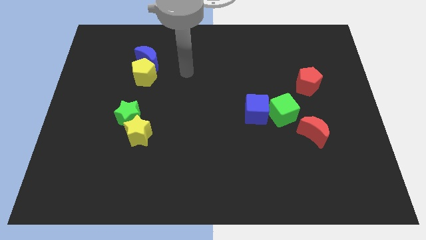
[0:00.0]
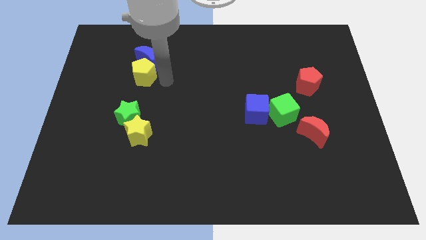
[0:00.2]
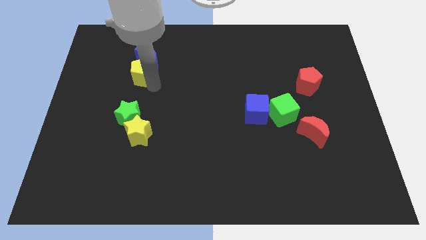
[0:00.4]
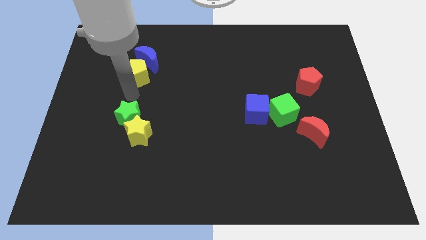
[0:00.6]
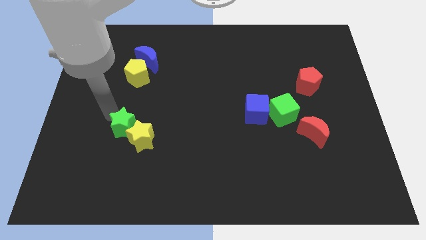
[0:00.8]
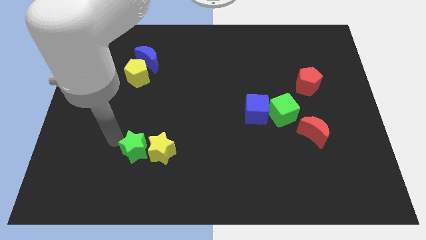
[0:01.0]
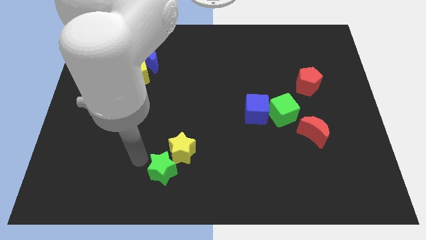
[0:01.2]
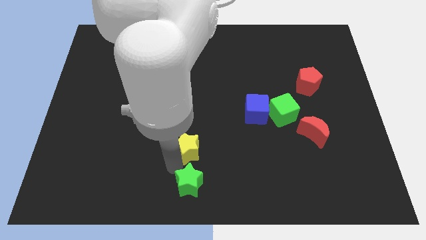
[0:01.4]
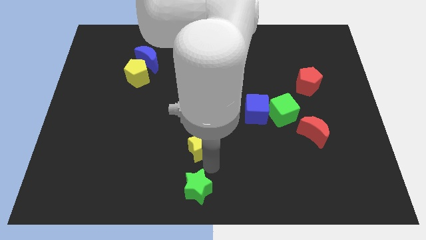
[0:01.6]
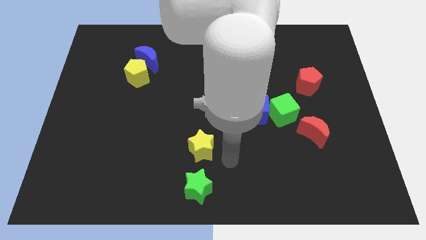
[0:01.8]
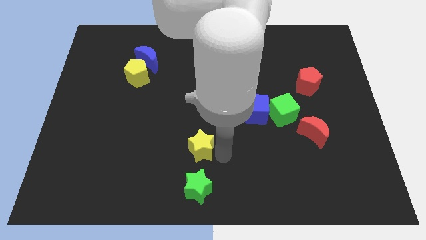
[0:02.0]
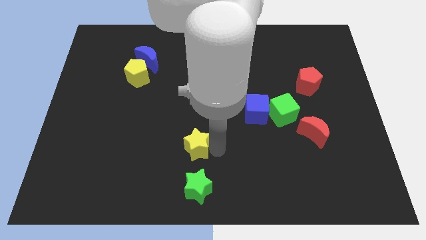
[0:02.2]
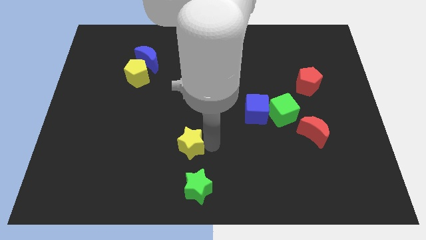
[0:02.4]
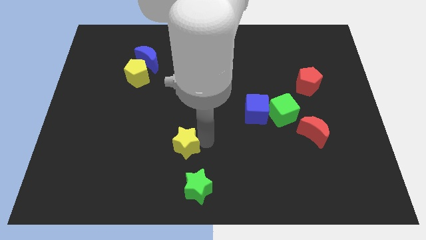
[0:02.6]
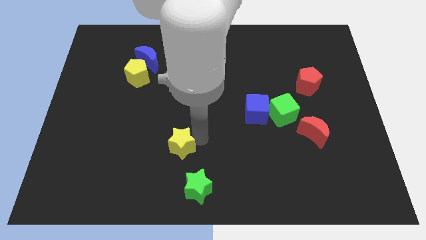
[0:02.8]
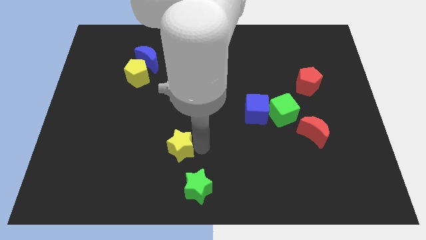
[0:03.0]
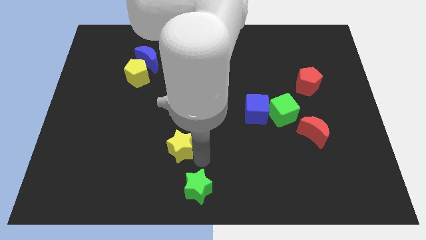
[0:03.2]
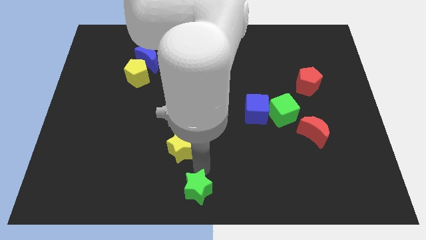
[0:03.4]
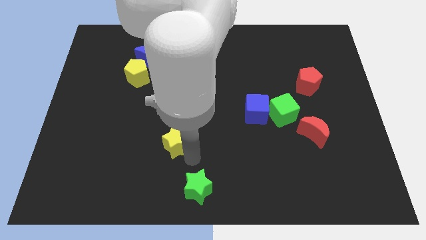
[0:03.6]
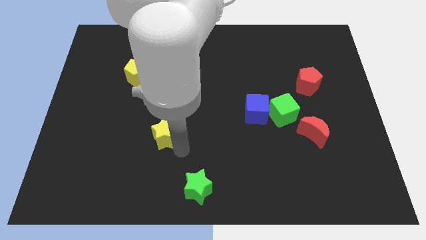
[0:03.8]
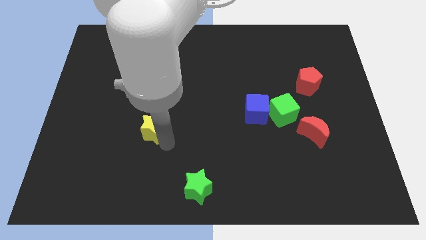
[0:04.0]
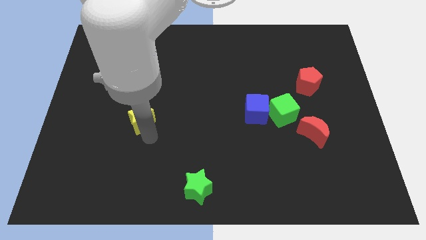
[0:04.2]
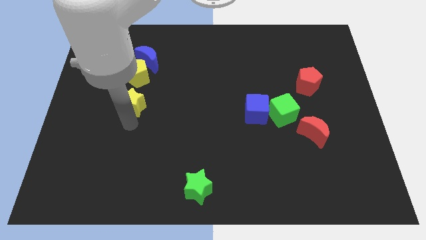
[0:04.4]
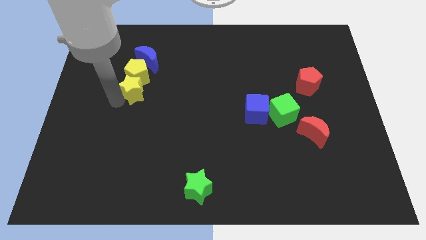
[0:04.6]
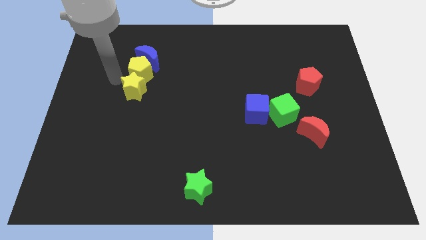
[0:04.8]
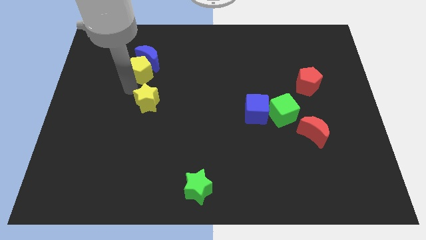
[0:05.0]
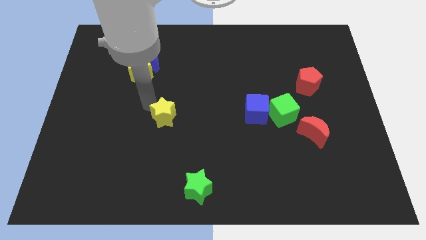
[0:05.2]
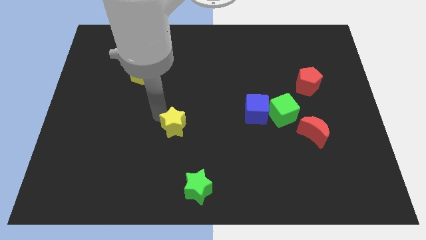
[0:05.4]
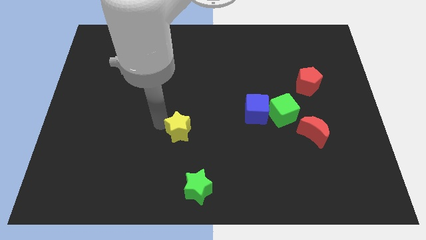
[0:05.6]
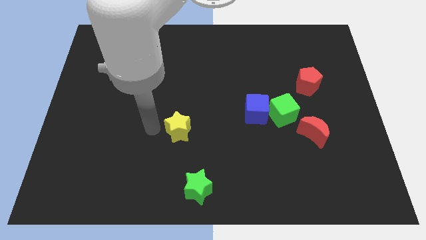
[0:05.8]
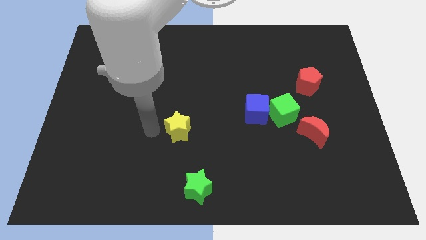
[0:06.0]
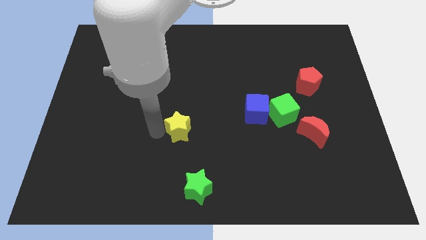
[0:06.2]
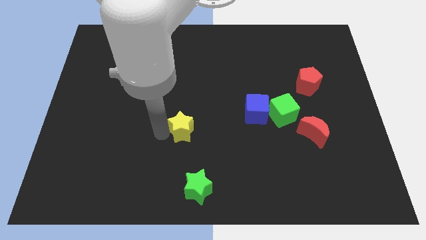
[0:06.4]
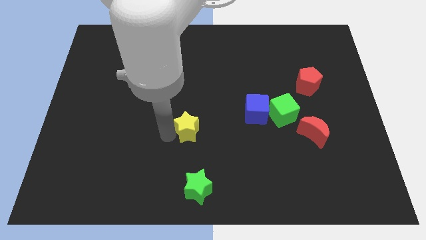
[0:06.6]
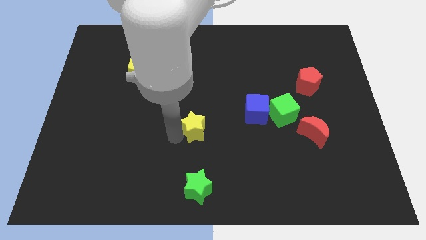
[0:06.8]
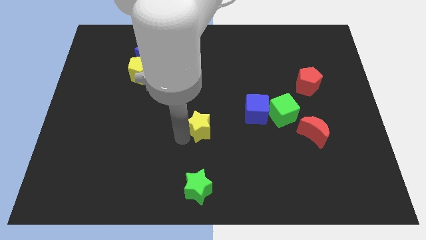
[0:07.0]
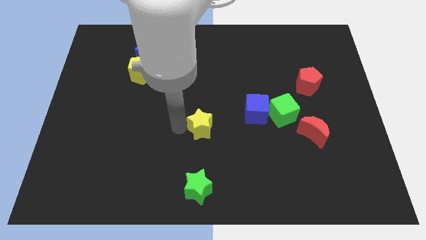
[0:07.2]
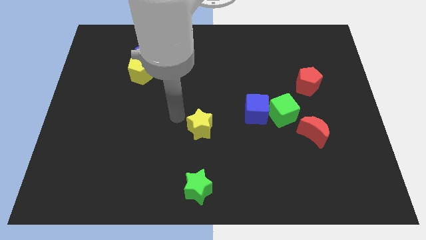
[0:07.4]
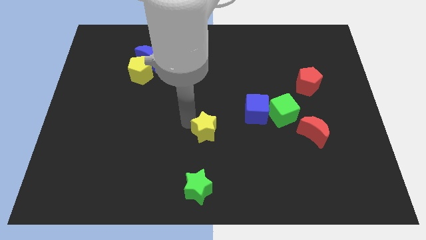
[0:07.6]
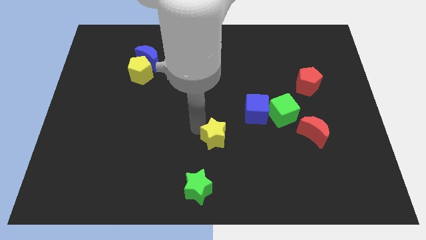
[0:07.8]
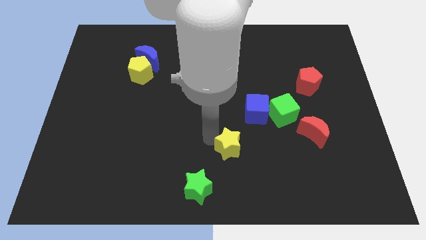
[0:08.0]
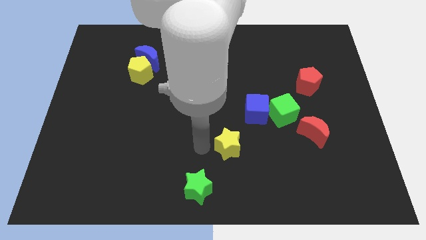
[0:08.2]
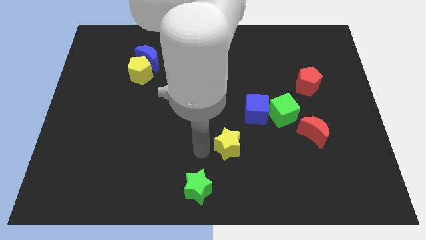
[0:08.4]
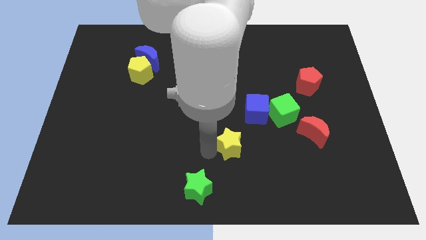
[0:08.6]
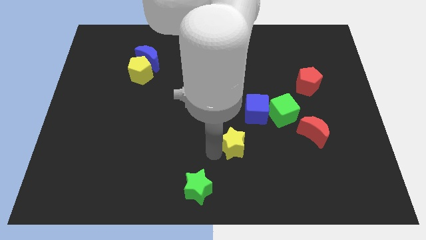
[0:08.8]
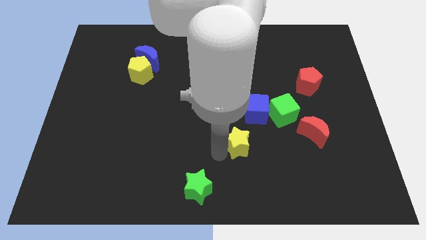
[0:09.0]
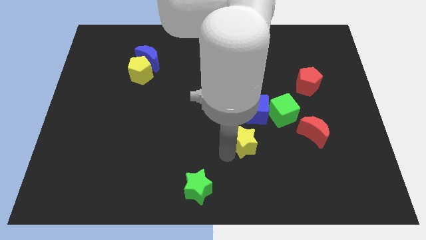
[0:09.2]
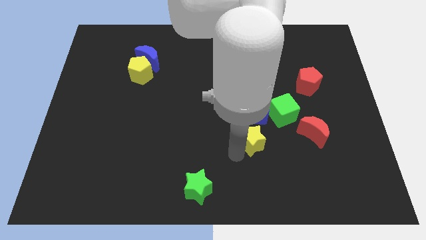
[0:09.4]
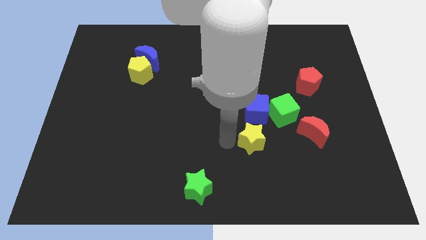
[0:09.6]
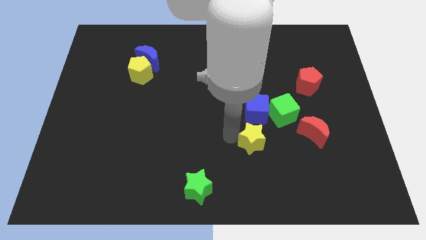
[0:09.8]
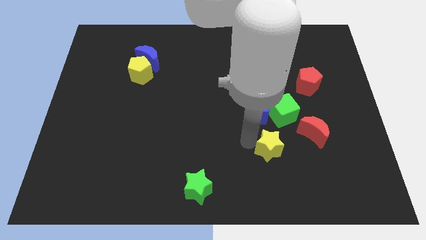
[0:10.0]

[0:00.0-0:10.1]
put the yellow star below the green cube

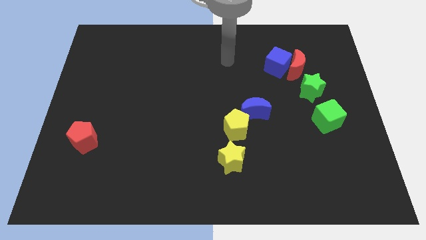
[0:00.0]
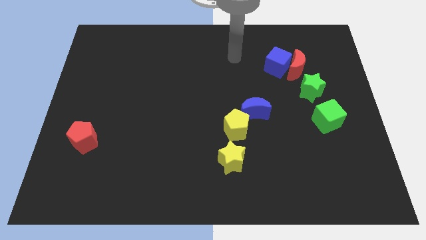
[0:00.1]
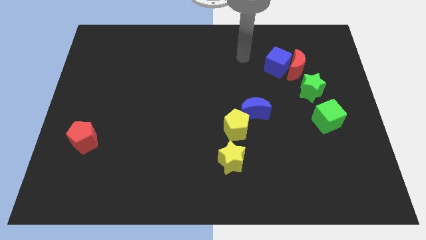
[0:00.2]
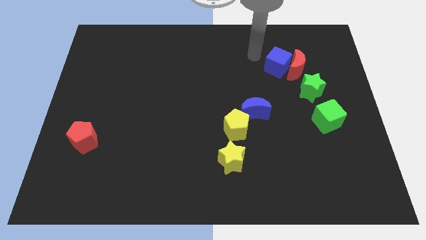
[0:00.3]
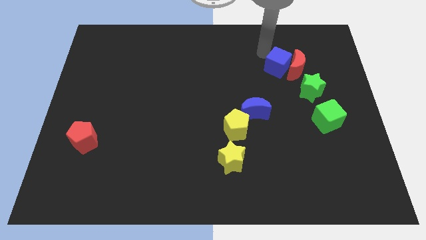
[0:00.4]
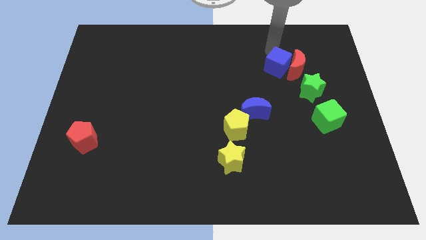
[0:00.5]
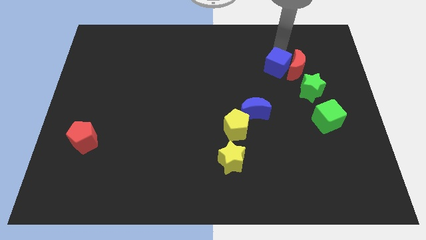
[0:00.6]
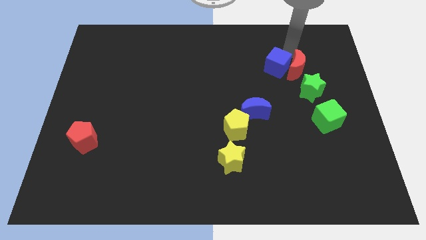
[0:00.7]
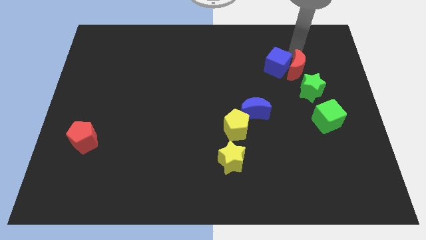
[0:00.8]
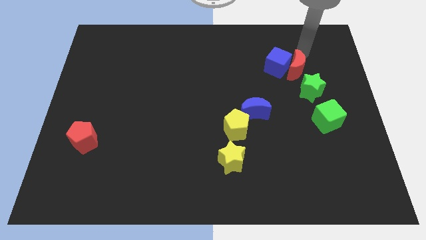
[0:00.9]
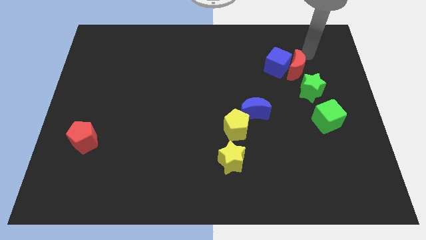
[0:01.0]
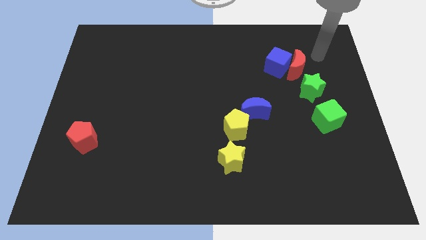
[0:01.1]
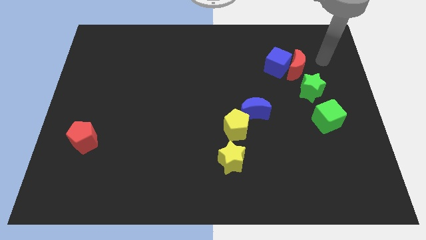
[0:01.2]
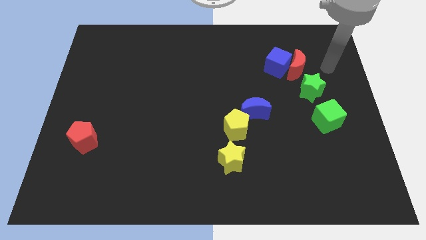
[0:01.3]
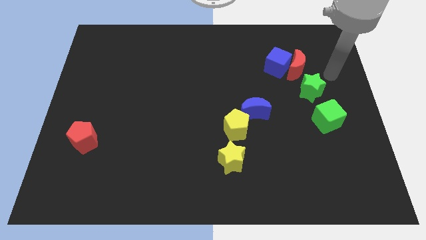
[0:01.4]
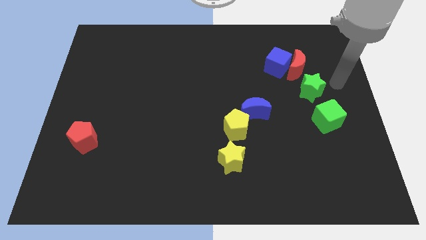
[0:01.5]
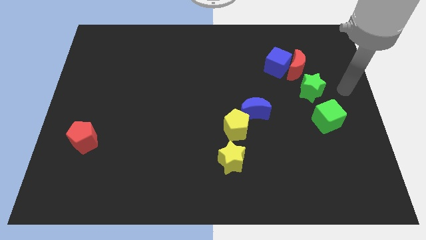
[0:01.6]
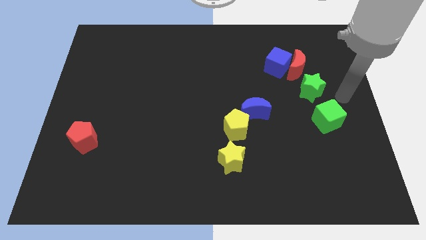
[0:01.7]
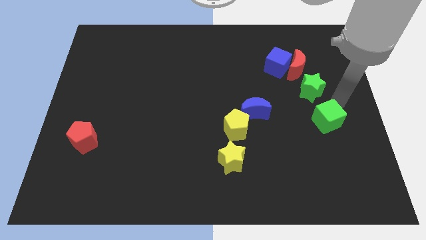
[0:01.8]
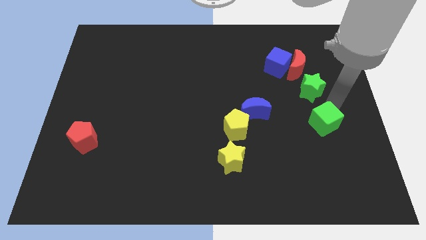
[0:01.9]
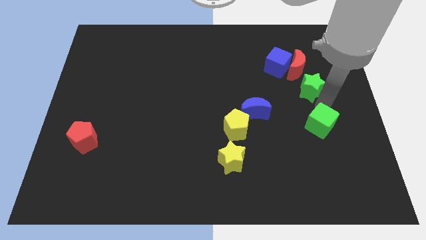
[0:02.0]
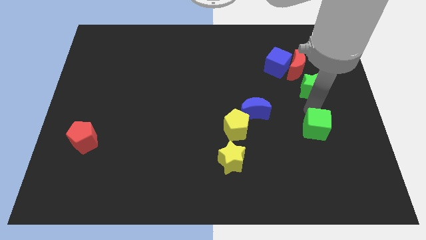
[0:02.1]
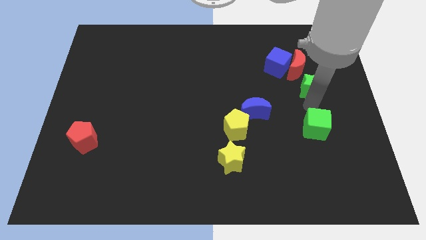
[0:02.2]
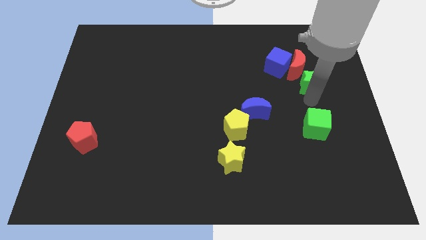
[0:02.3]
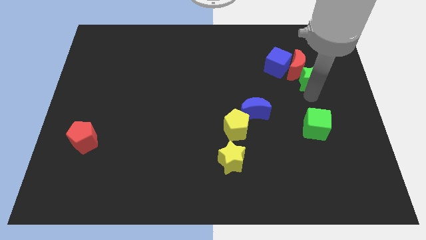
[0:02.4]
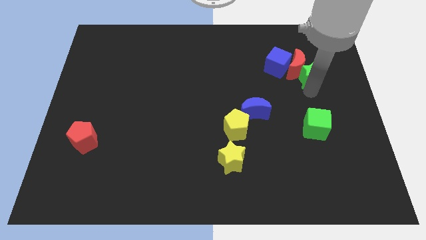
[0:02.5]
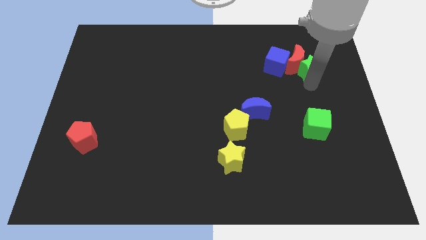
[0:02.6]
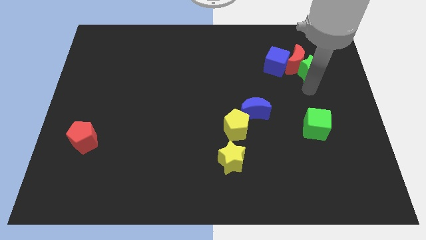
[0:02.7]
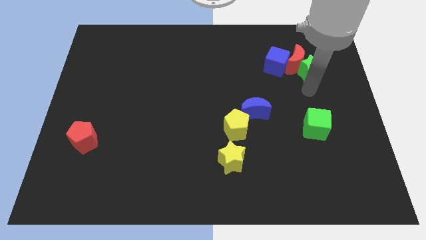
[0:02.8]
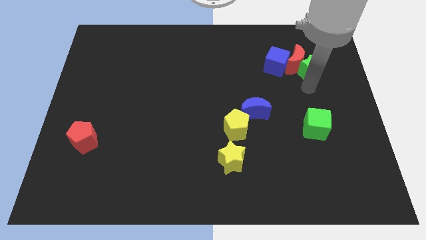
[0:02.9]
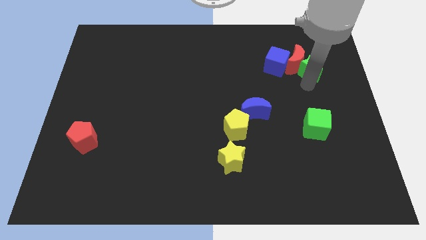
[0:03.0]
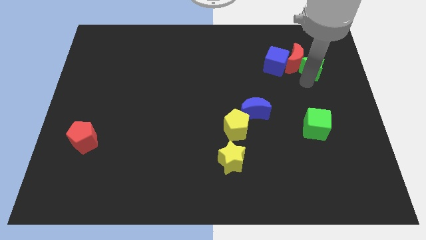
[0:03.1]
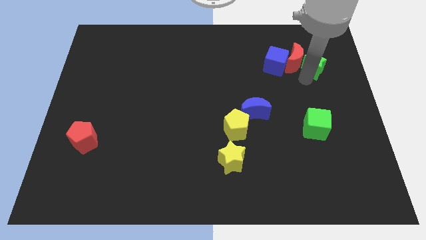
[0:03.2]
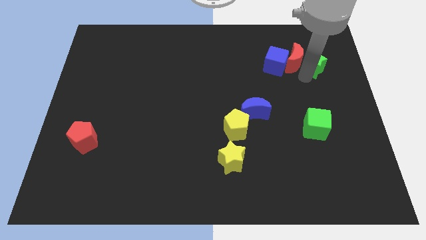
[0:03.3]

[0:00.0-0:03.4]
put the green star diagonally up and to the right of the red moon
